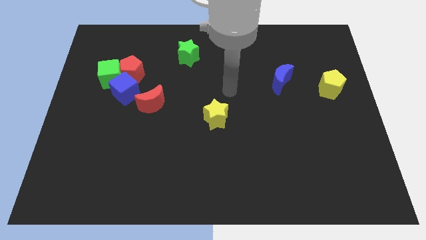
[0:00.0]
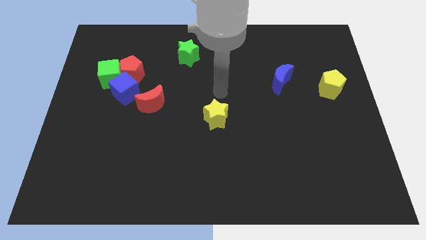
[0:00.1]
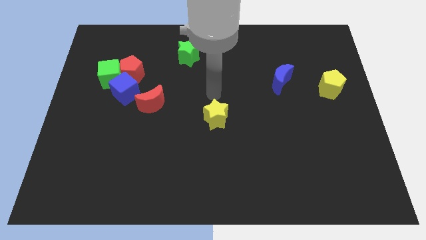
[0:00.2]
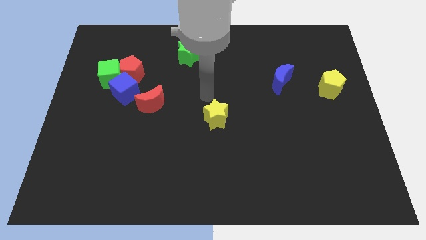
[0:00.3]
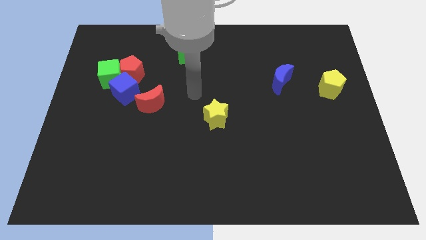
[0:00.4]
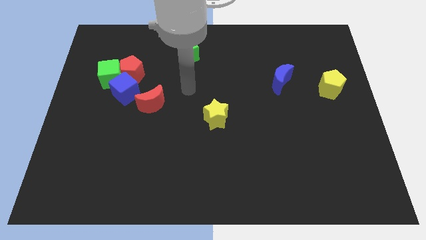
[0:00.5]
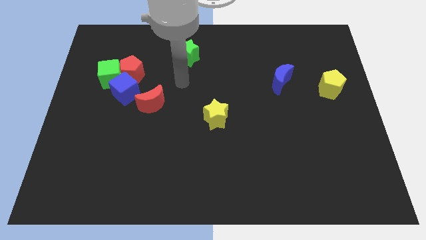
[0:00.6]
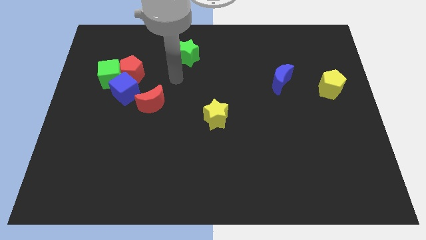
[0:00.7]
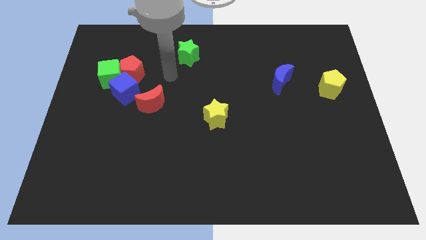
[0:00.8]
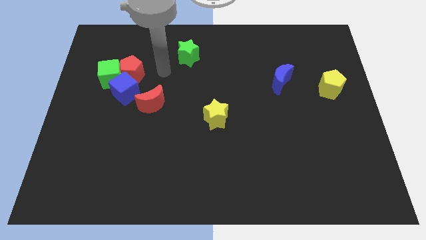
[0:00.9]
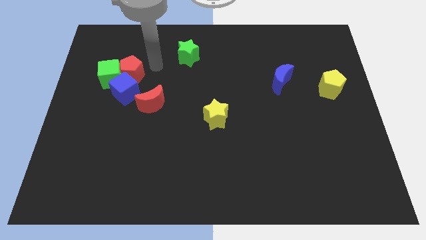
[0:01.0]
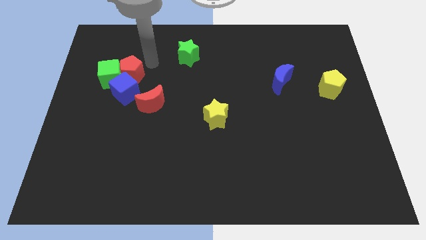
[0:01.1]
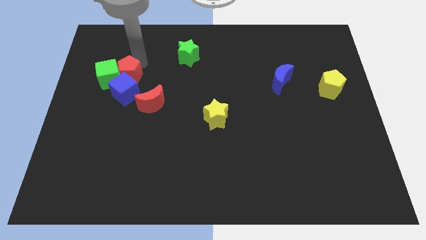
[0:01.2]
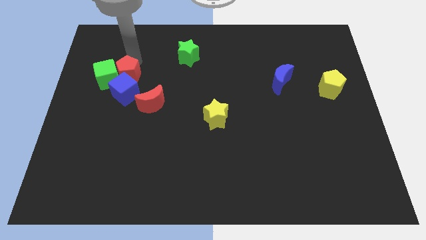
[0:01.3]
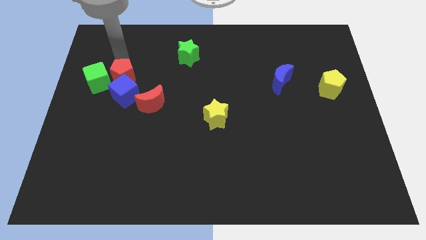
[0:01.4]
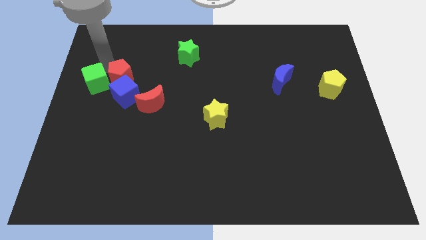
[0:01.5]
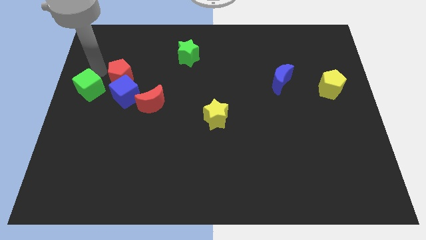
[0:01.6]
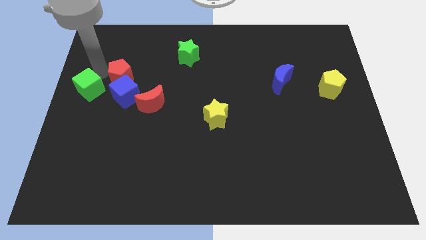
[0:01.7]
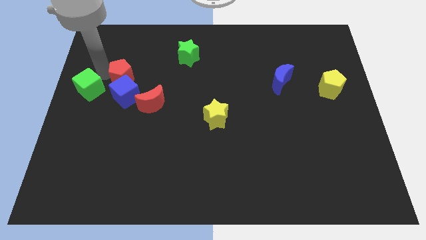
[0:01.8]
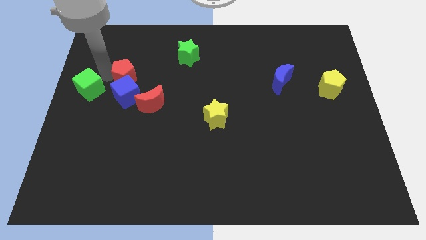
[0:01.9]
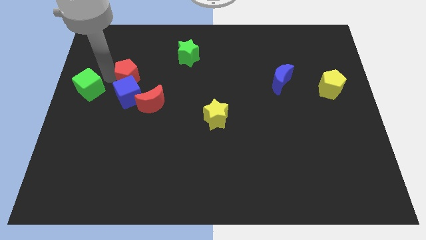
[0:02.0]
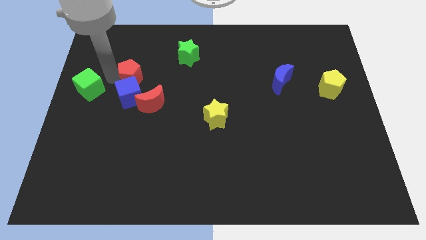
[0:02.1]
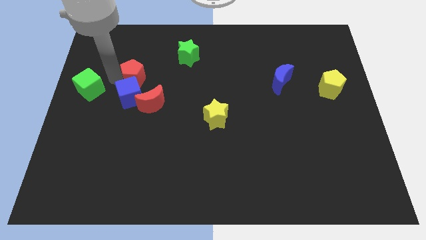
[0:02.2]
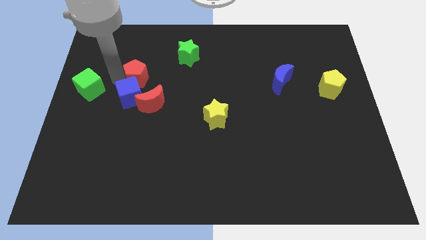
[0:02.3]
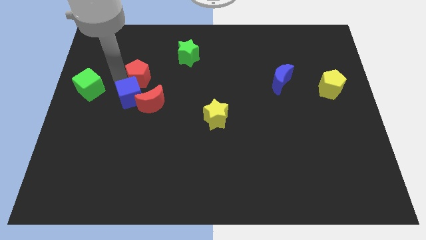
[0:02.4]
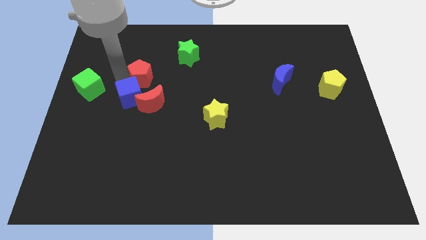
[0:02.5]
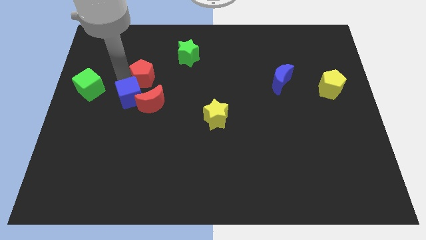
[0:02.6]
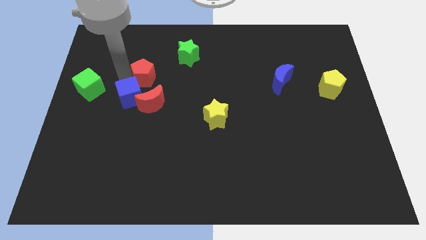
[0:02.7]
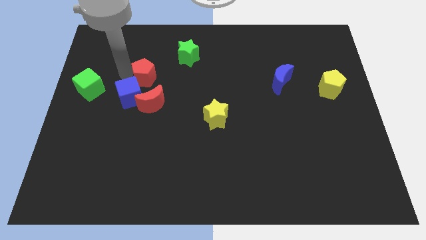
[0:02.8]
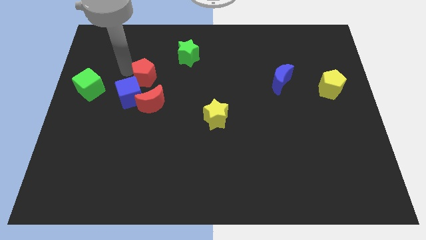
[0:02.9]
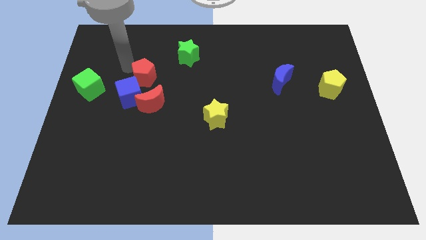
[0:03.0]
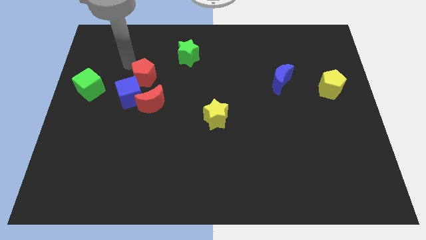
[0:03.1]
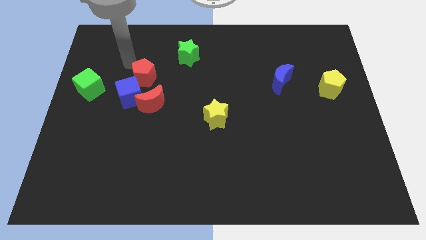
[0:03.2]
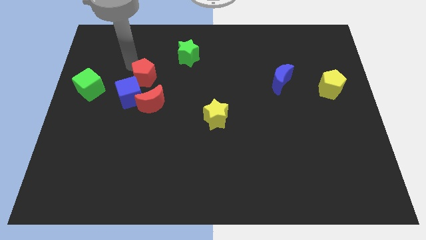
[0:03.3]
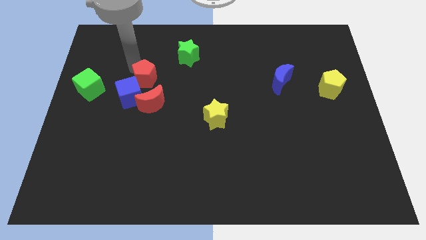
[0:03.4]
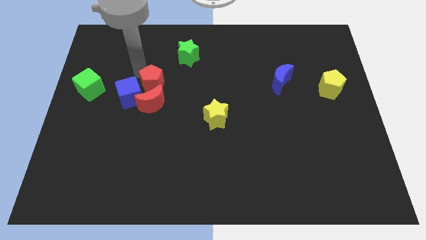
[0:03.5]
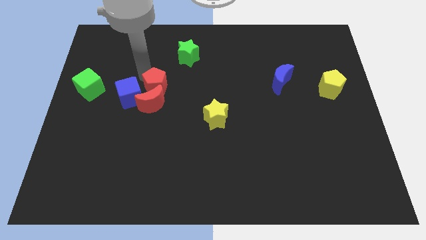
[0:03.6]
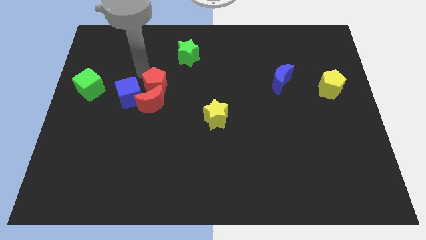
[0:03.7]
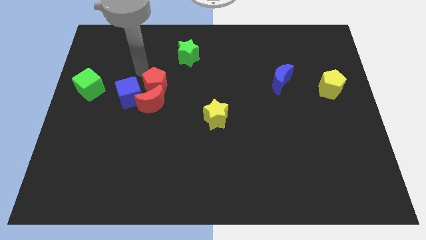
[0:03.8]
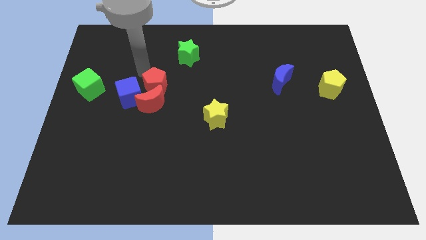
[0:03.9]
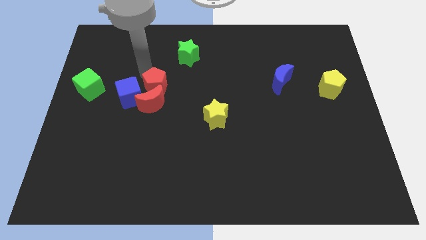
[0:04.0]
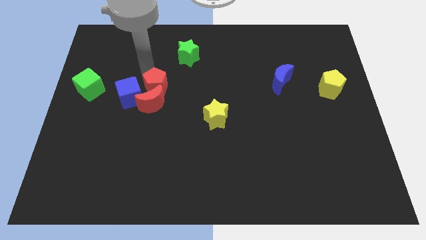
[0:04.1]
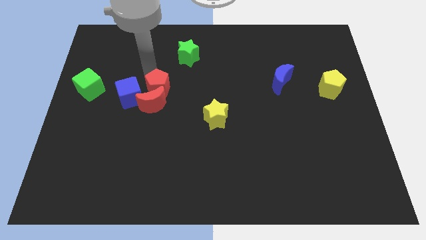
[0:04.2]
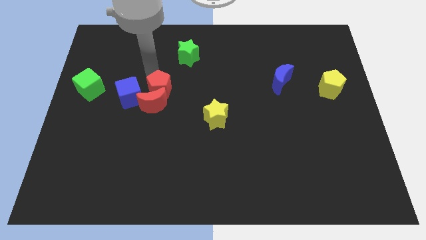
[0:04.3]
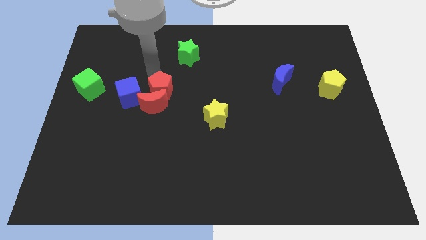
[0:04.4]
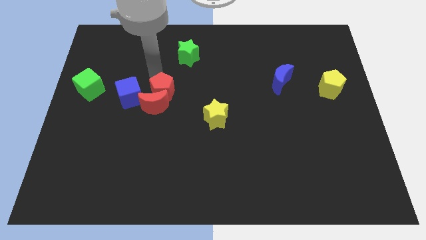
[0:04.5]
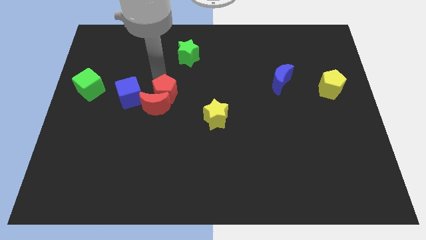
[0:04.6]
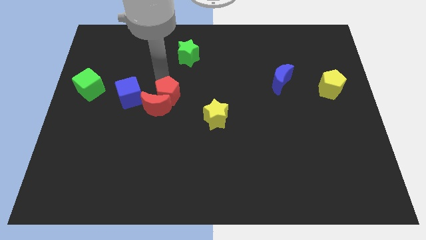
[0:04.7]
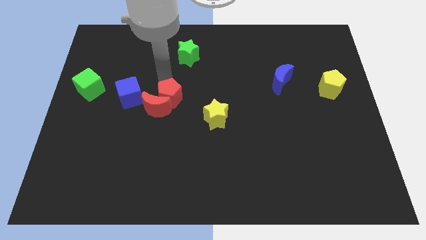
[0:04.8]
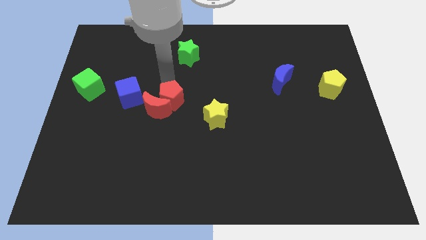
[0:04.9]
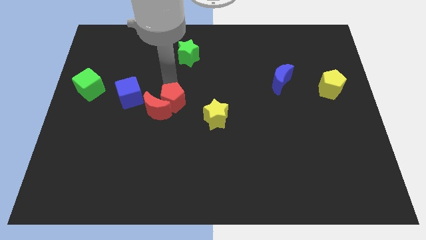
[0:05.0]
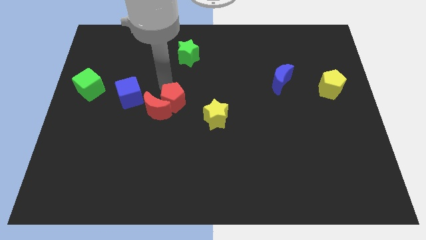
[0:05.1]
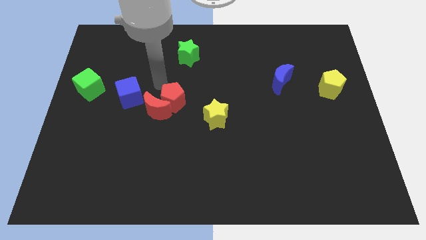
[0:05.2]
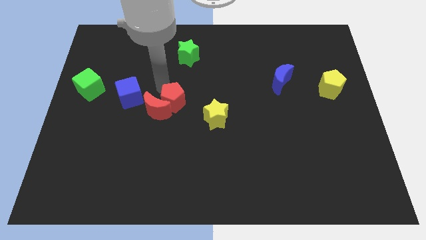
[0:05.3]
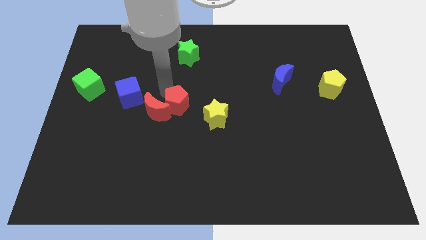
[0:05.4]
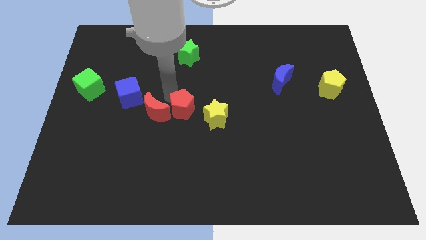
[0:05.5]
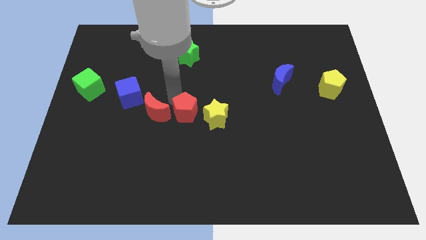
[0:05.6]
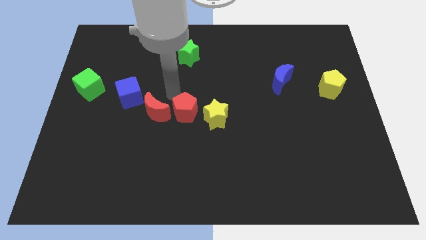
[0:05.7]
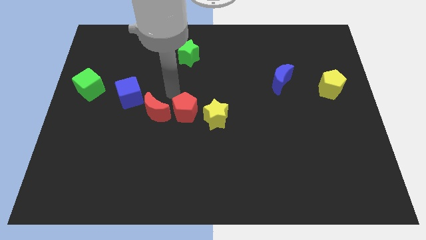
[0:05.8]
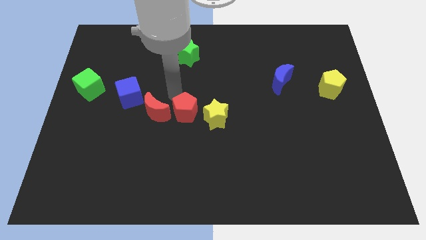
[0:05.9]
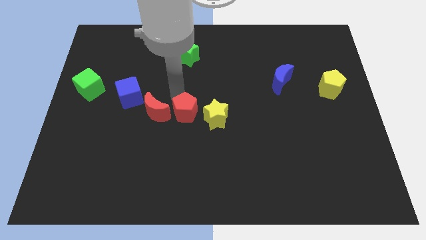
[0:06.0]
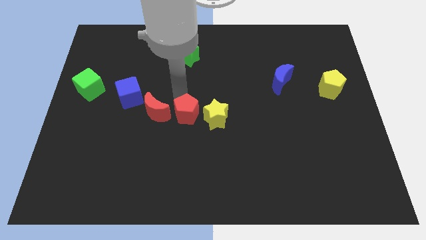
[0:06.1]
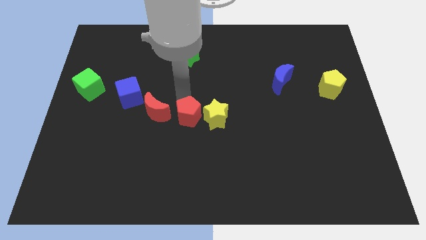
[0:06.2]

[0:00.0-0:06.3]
move the red pentagon downwards and right

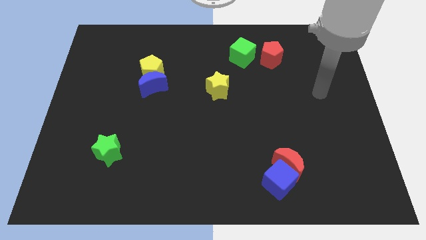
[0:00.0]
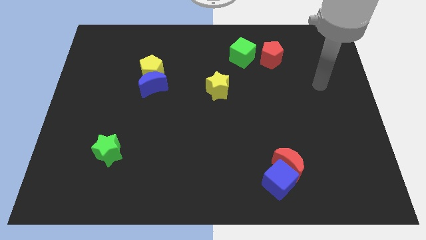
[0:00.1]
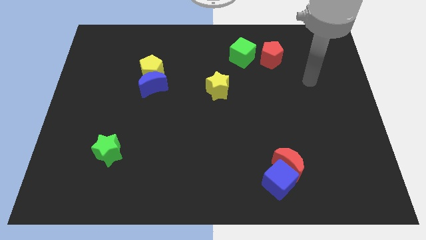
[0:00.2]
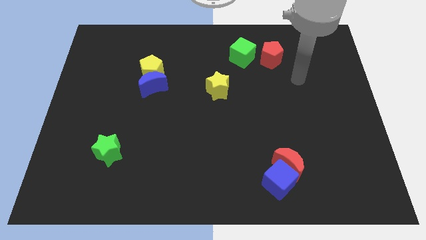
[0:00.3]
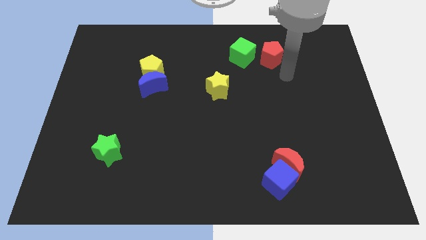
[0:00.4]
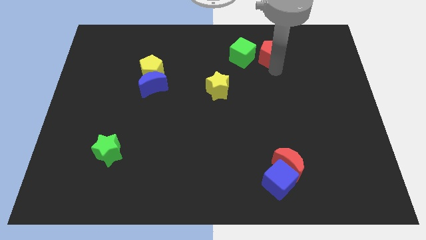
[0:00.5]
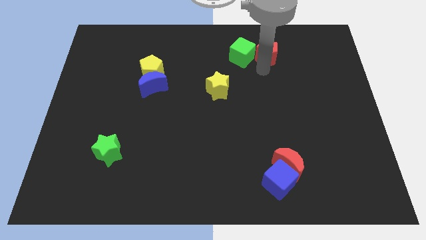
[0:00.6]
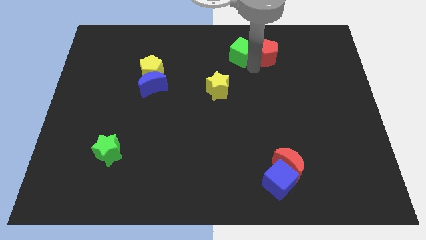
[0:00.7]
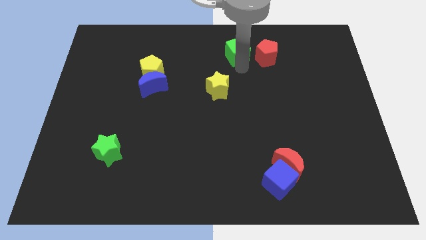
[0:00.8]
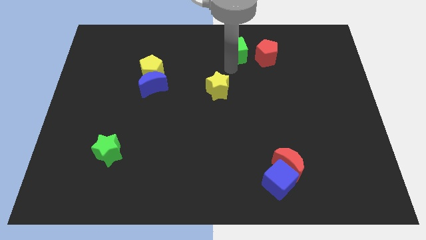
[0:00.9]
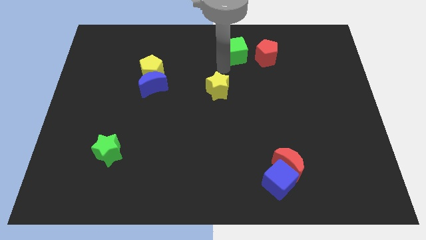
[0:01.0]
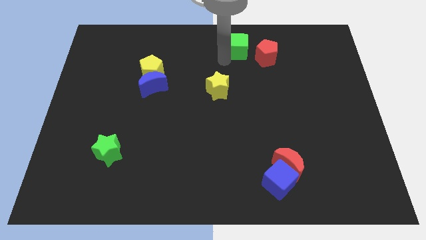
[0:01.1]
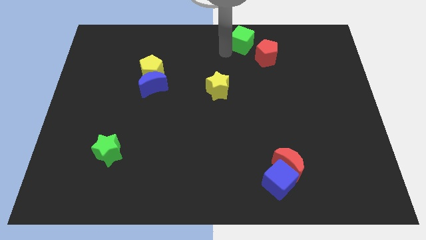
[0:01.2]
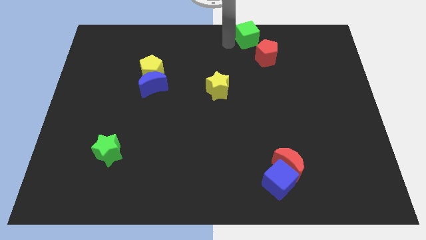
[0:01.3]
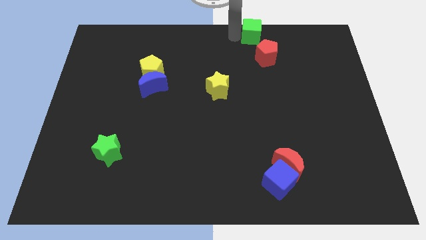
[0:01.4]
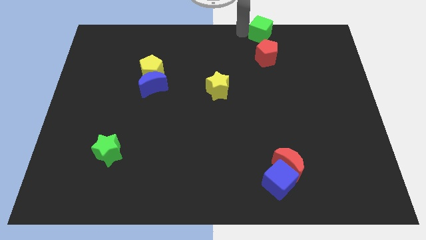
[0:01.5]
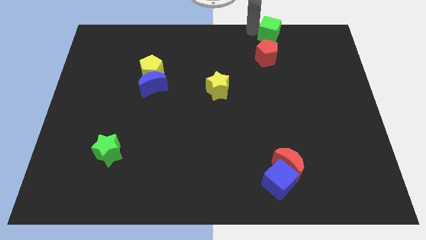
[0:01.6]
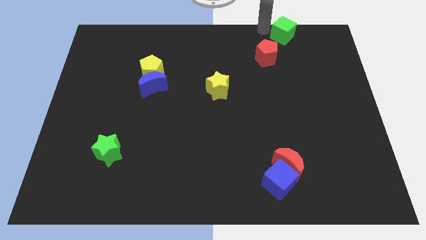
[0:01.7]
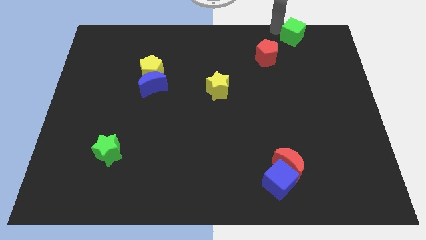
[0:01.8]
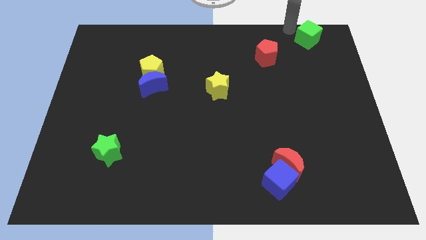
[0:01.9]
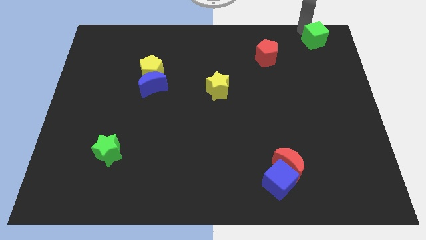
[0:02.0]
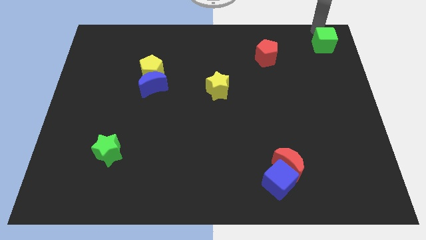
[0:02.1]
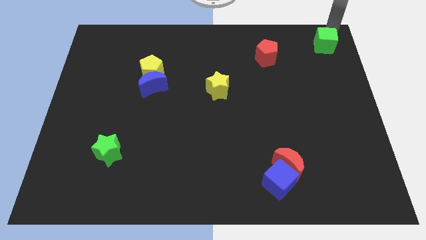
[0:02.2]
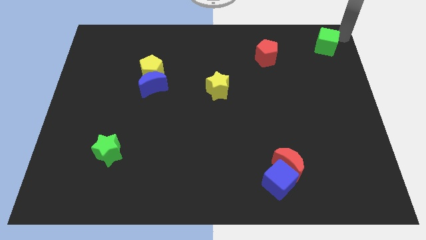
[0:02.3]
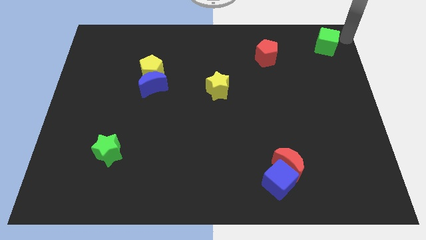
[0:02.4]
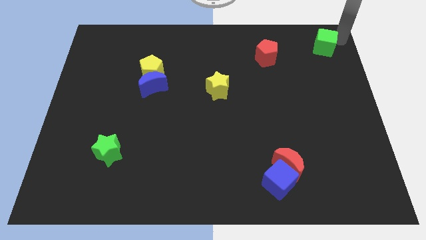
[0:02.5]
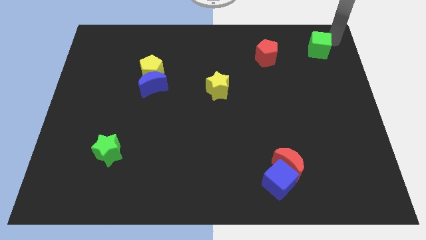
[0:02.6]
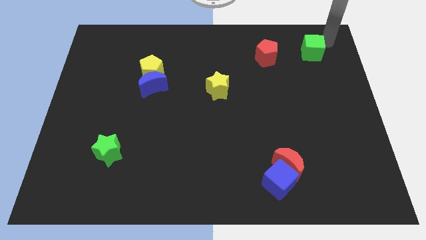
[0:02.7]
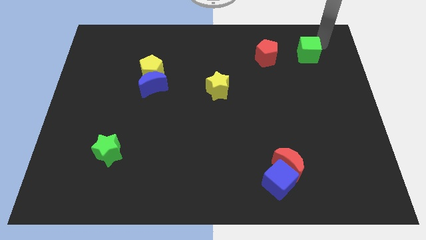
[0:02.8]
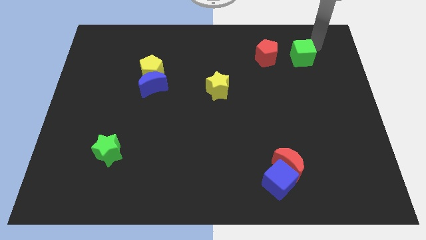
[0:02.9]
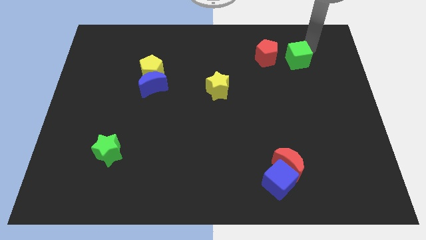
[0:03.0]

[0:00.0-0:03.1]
slightly push the green cube down and right
